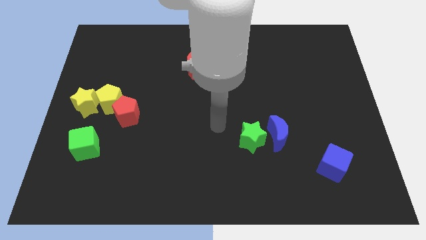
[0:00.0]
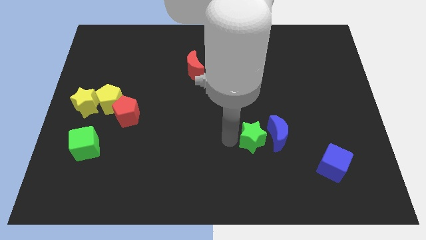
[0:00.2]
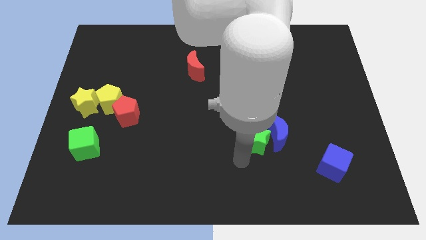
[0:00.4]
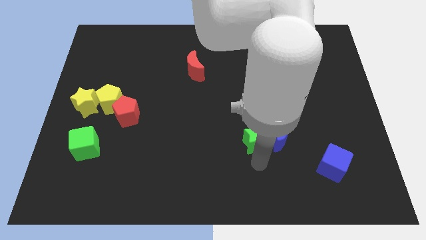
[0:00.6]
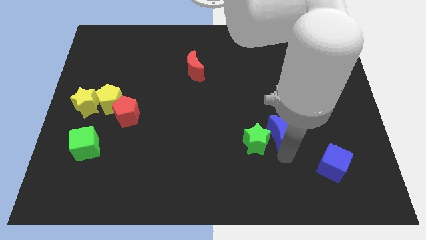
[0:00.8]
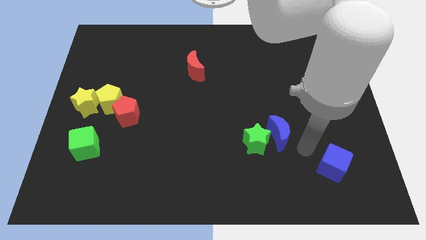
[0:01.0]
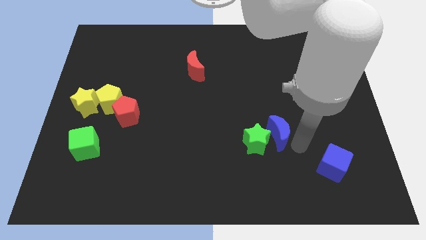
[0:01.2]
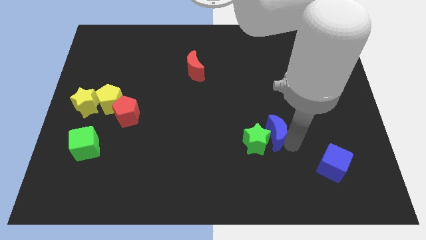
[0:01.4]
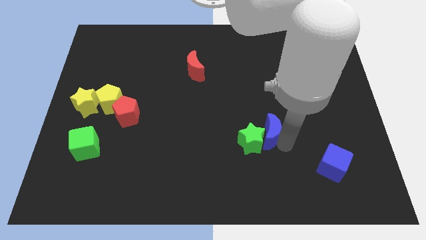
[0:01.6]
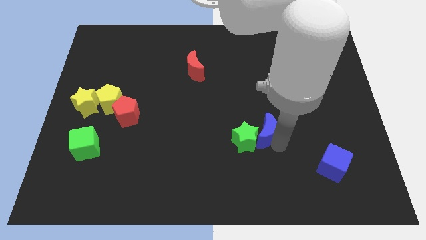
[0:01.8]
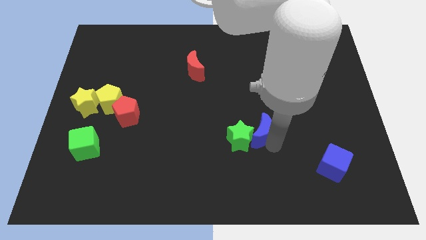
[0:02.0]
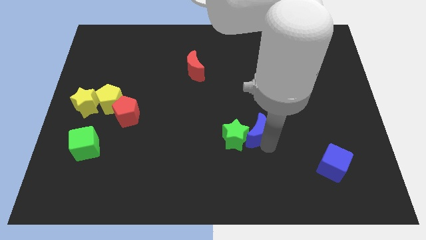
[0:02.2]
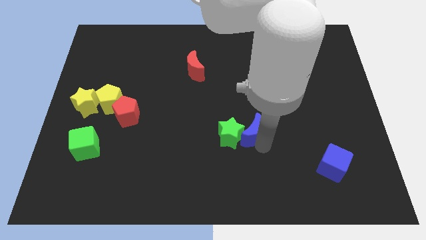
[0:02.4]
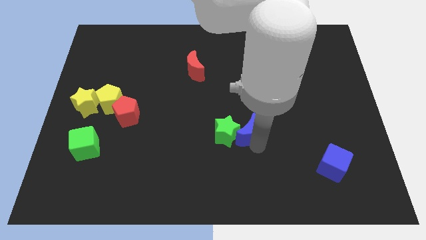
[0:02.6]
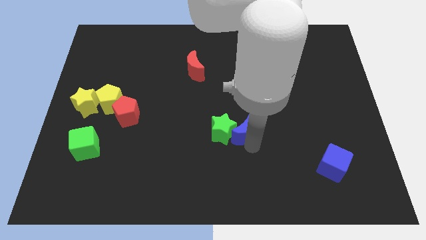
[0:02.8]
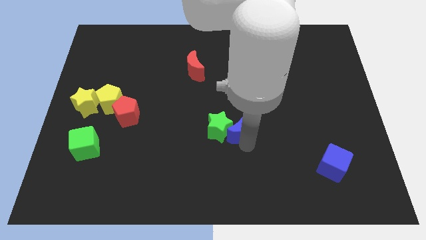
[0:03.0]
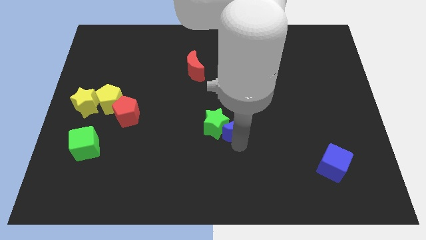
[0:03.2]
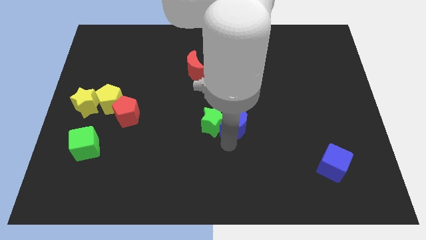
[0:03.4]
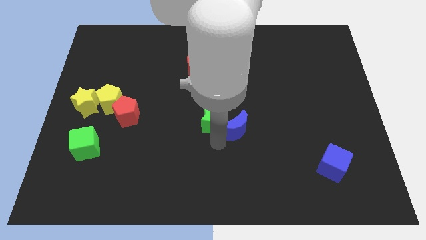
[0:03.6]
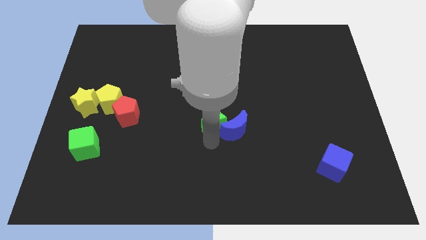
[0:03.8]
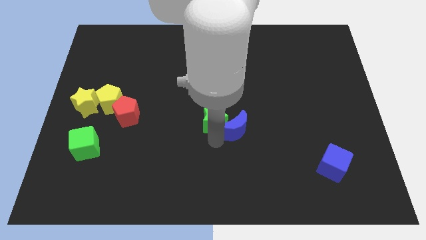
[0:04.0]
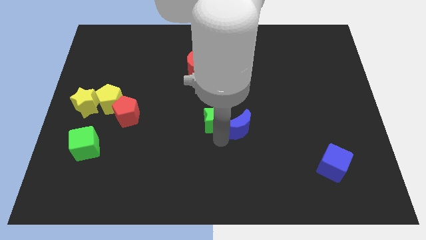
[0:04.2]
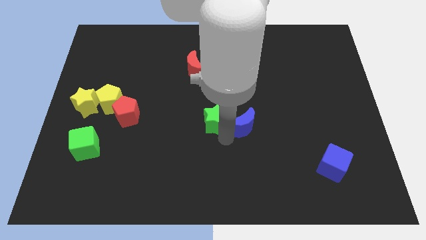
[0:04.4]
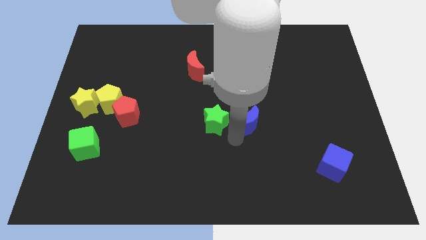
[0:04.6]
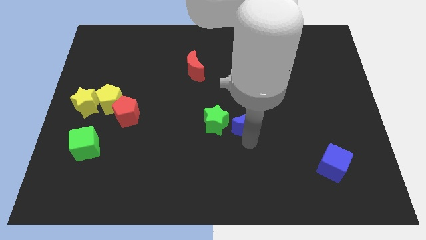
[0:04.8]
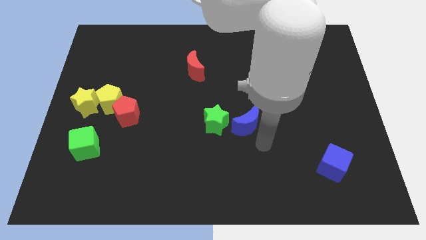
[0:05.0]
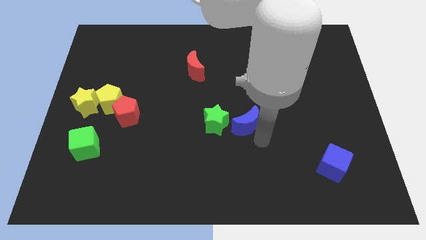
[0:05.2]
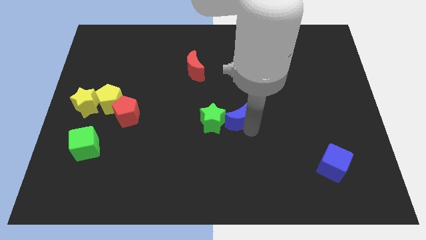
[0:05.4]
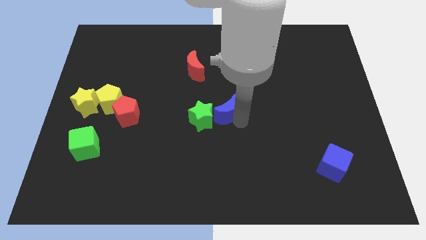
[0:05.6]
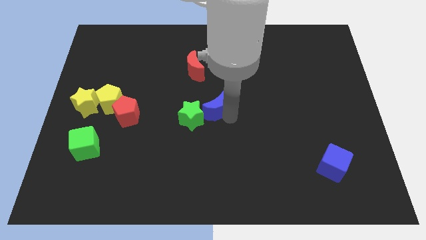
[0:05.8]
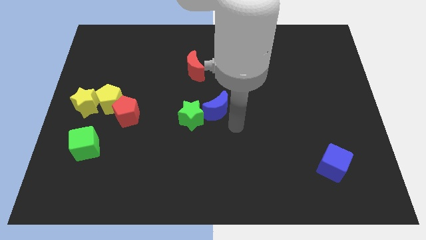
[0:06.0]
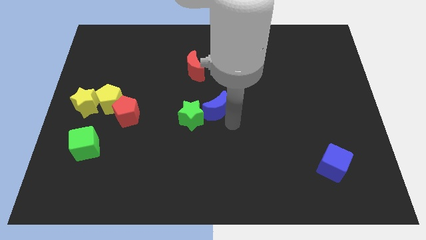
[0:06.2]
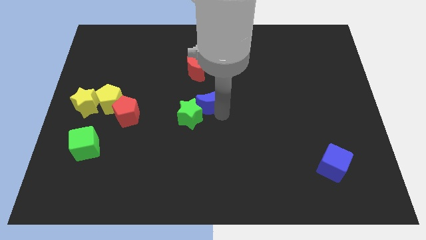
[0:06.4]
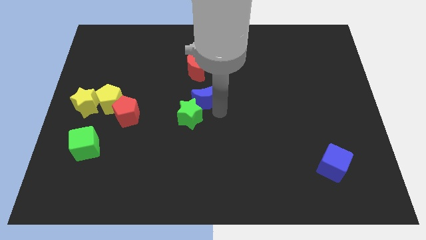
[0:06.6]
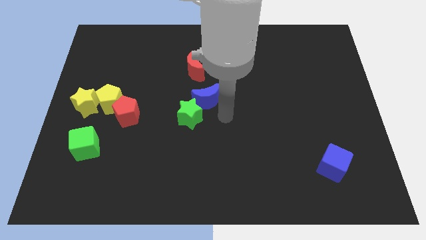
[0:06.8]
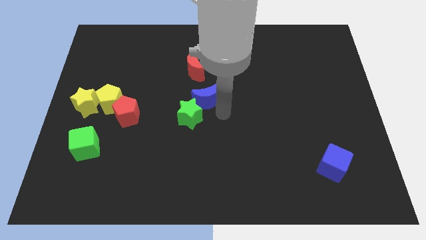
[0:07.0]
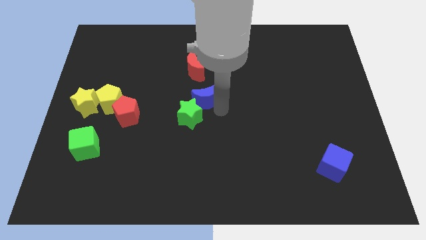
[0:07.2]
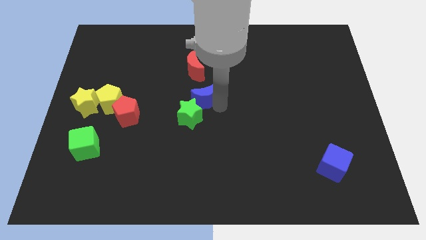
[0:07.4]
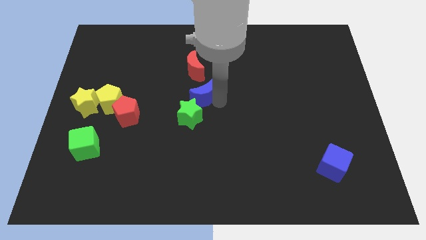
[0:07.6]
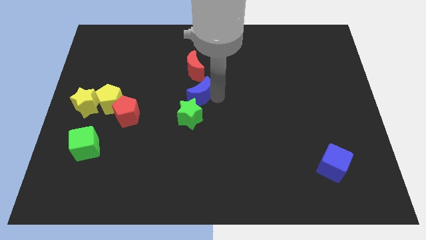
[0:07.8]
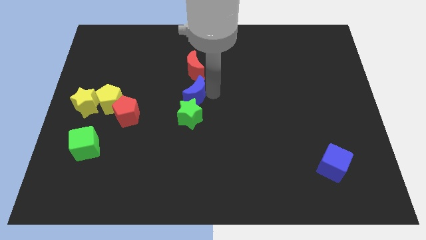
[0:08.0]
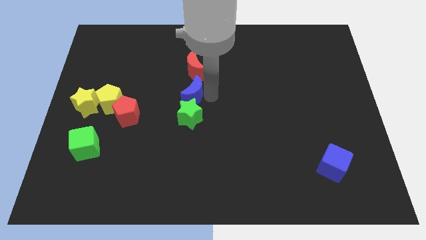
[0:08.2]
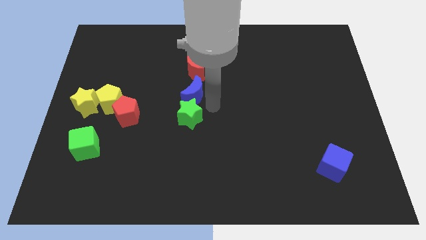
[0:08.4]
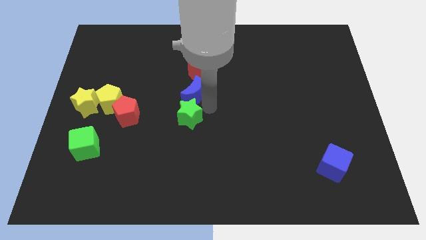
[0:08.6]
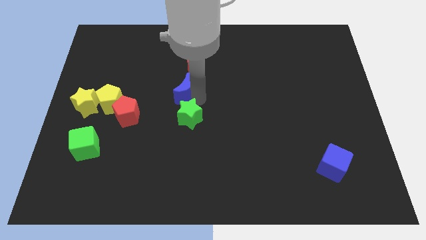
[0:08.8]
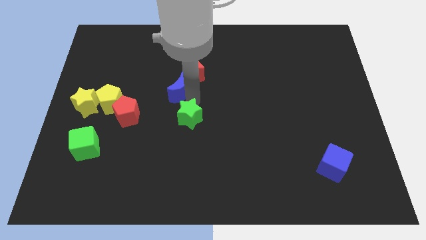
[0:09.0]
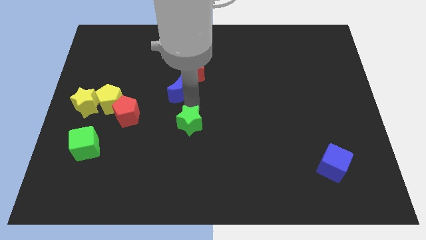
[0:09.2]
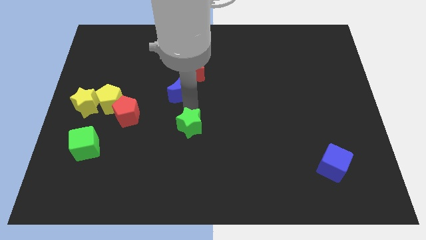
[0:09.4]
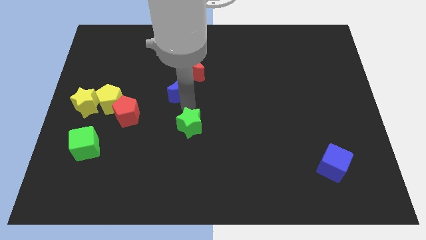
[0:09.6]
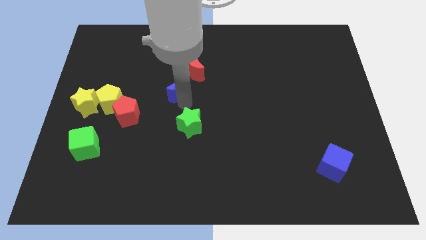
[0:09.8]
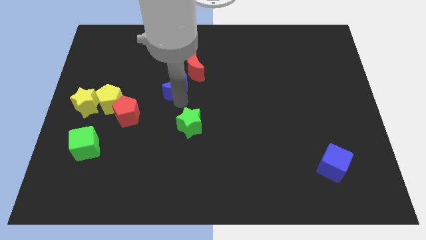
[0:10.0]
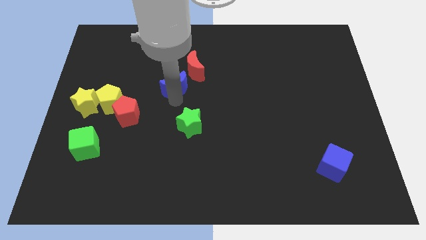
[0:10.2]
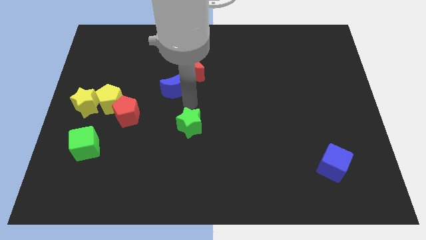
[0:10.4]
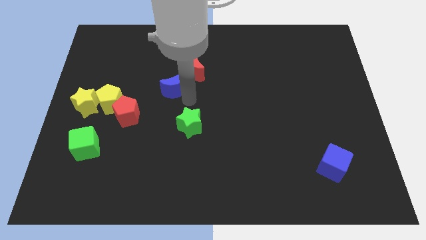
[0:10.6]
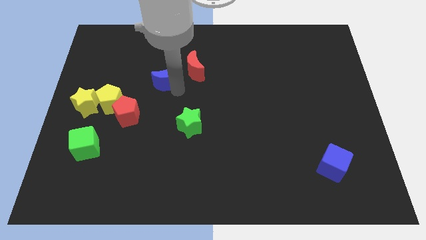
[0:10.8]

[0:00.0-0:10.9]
slide the blue moon just left of the red moon

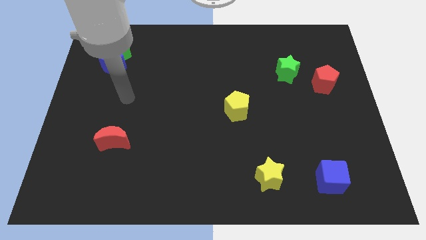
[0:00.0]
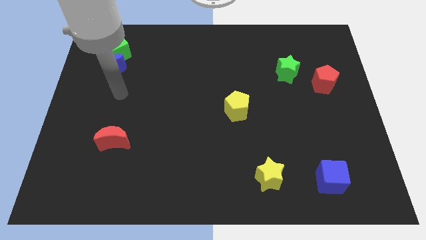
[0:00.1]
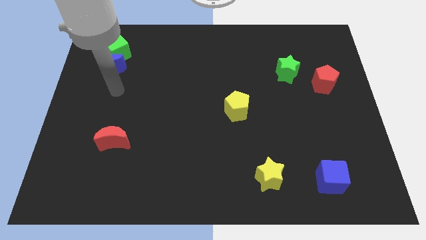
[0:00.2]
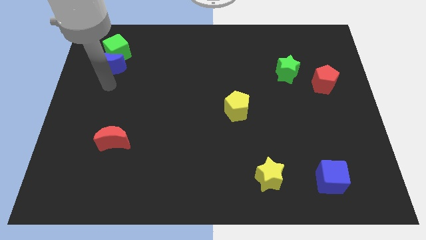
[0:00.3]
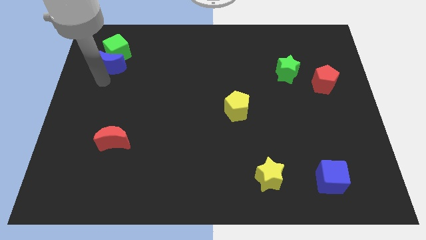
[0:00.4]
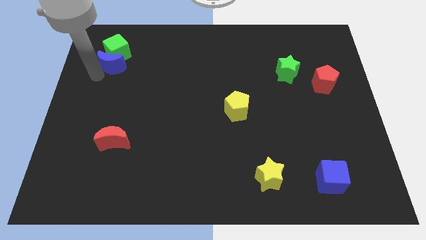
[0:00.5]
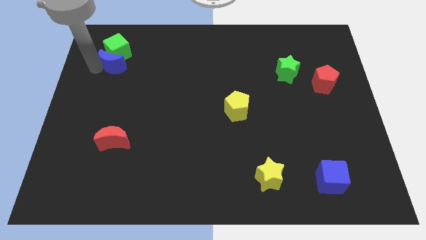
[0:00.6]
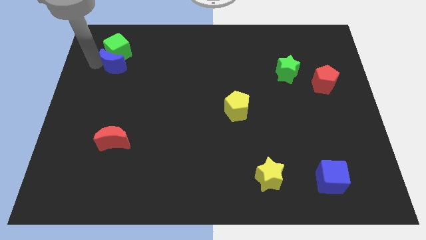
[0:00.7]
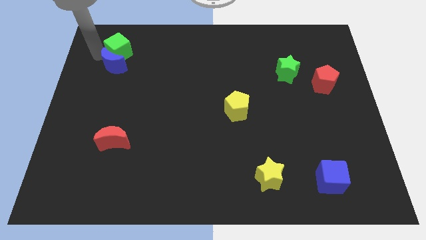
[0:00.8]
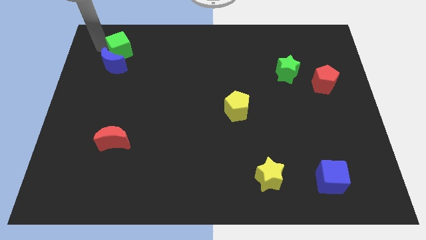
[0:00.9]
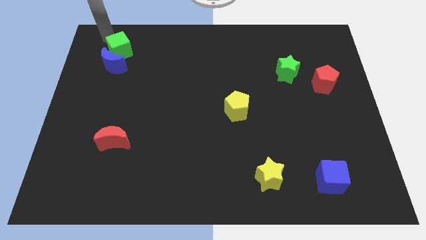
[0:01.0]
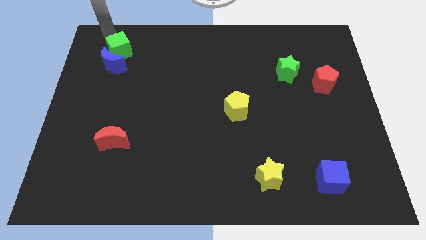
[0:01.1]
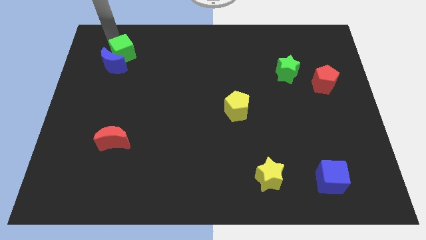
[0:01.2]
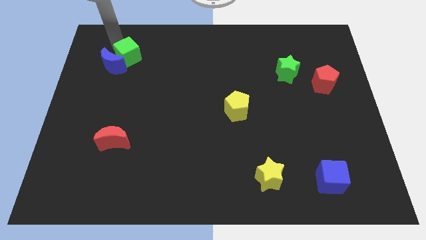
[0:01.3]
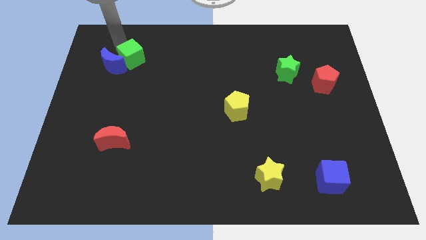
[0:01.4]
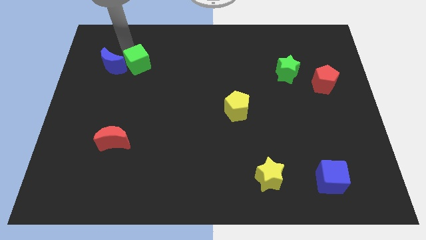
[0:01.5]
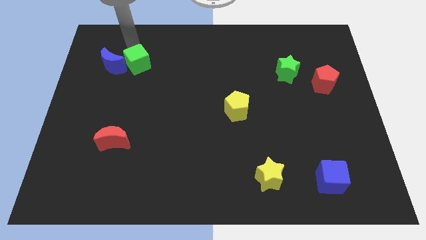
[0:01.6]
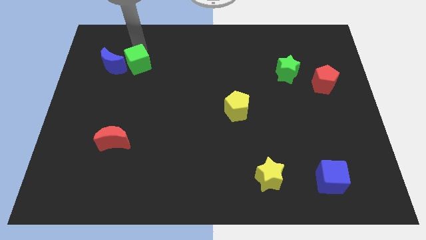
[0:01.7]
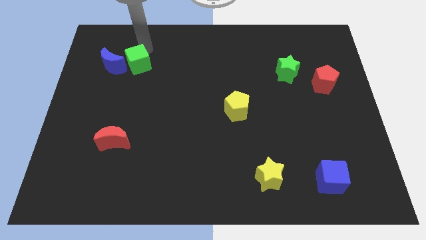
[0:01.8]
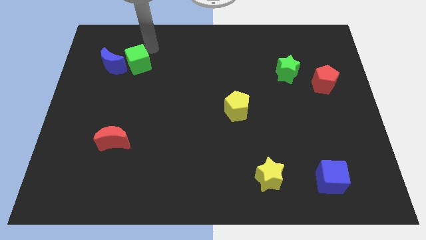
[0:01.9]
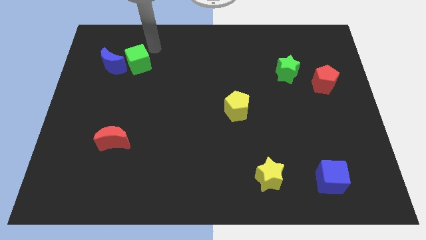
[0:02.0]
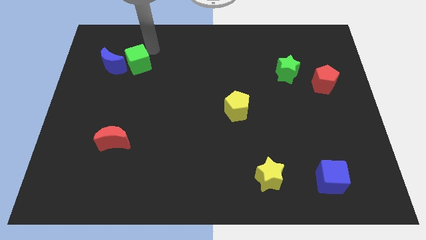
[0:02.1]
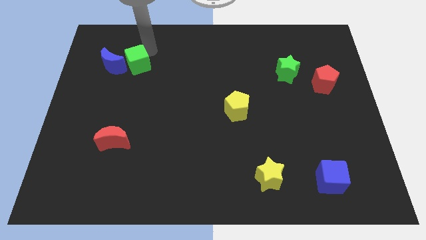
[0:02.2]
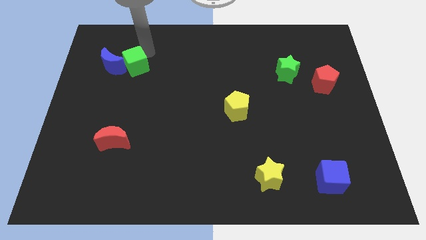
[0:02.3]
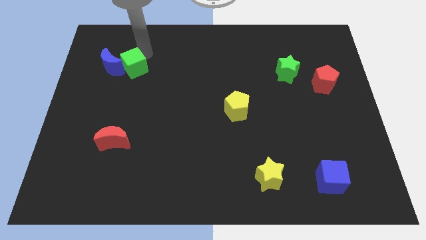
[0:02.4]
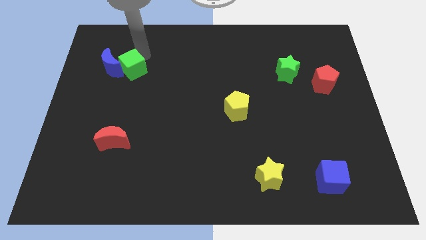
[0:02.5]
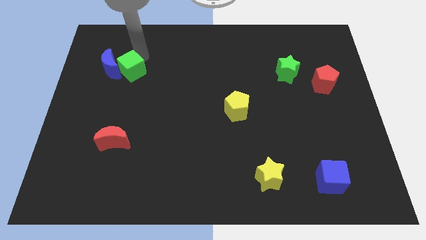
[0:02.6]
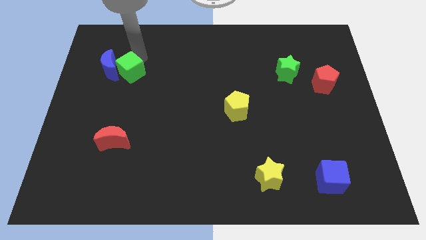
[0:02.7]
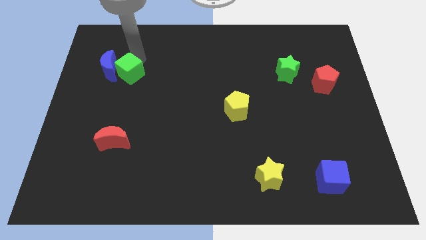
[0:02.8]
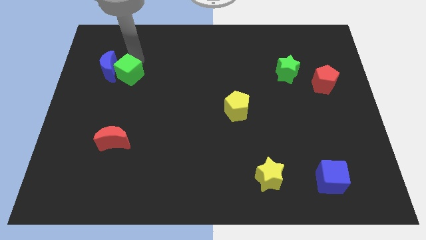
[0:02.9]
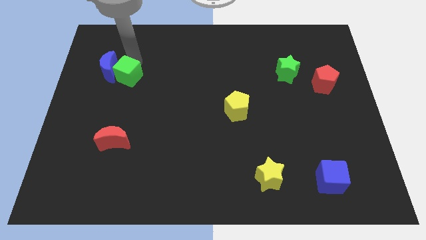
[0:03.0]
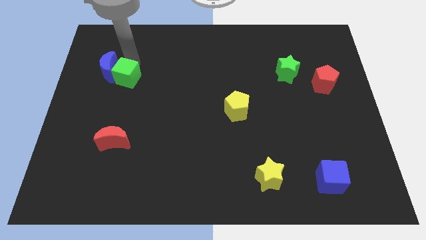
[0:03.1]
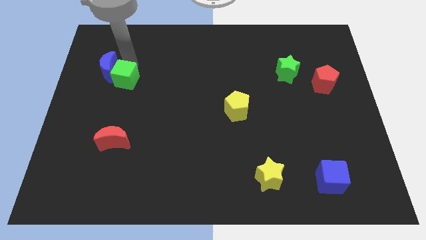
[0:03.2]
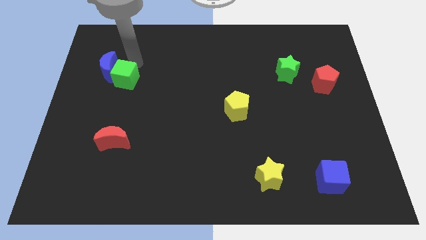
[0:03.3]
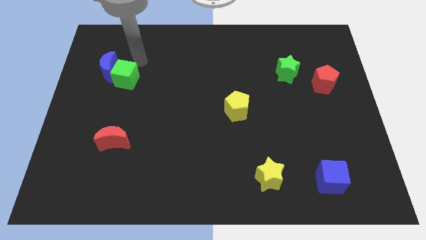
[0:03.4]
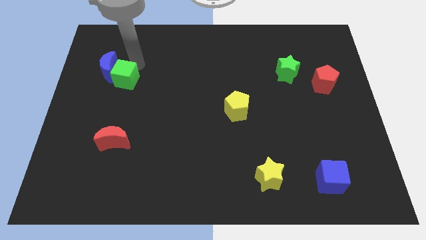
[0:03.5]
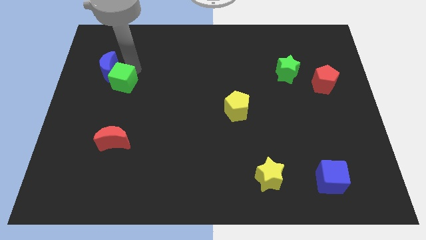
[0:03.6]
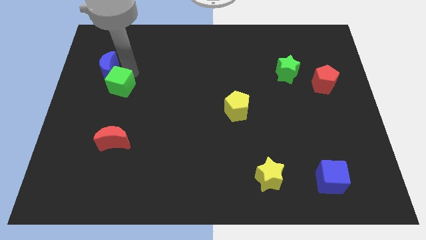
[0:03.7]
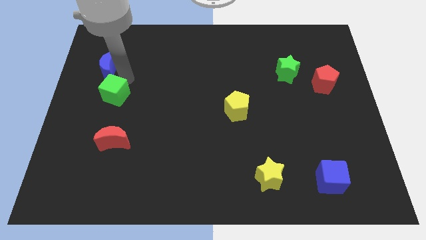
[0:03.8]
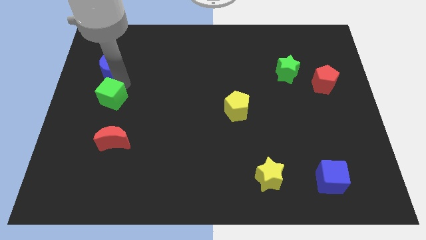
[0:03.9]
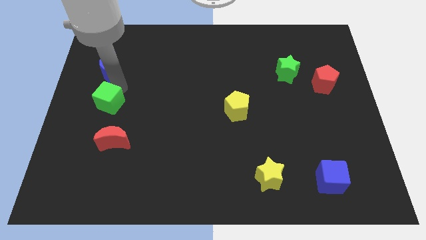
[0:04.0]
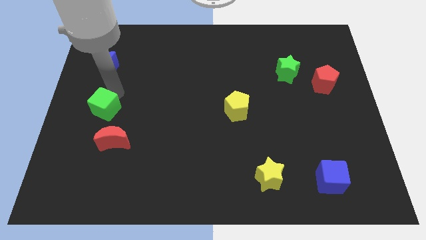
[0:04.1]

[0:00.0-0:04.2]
move the green cube to the top left side of the red moon
